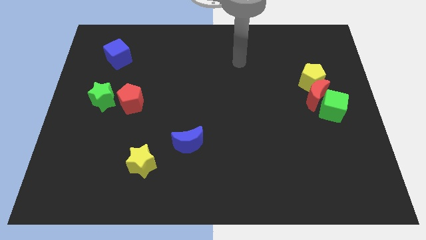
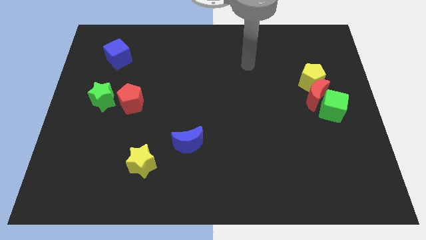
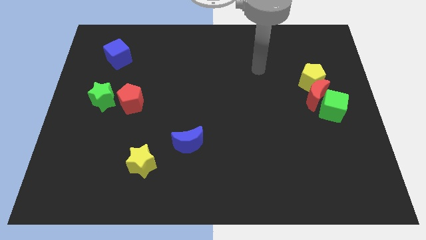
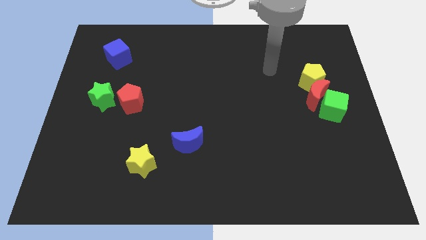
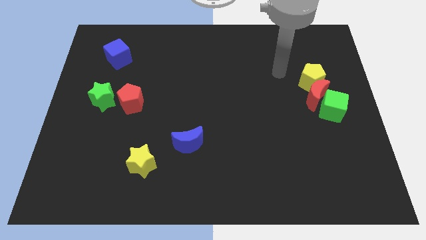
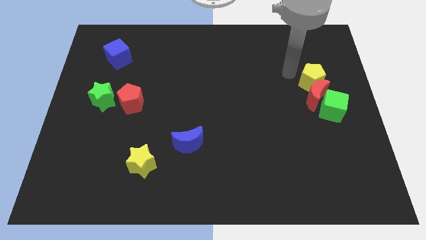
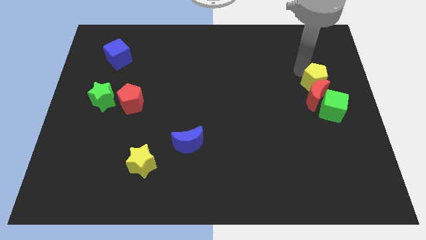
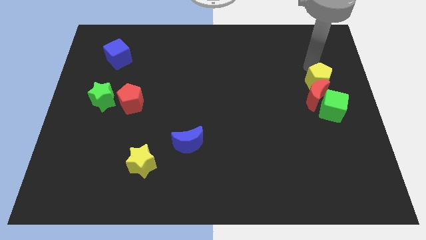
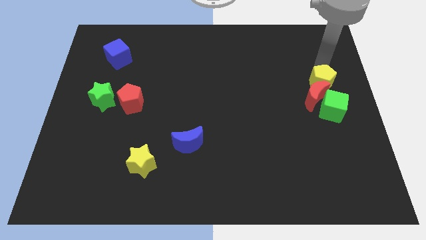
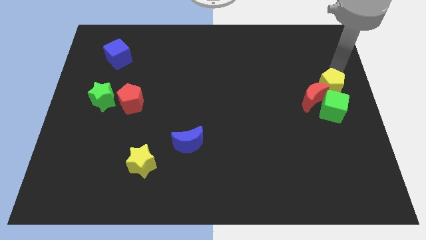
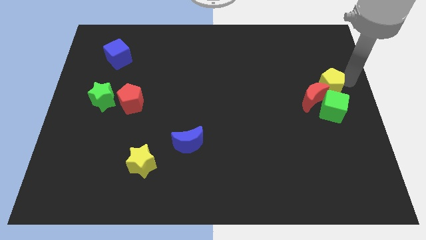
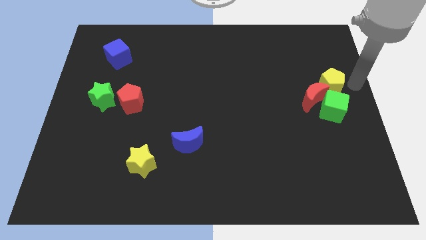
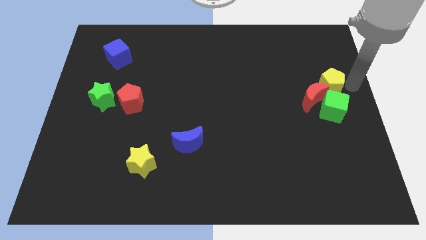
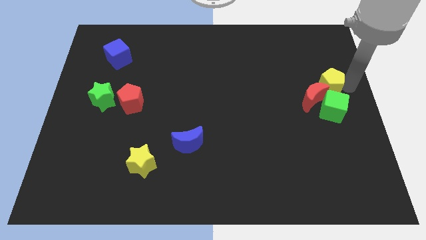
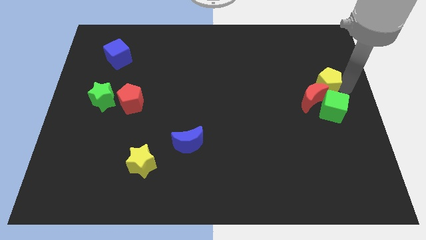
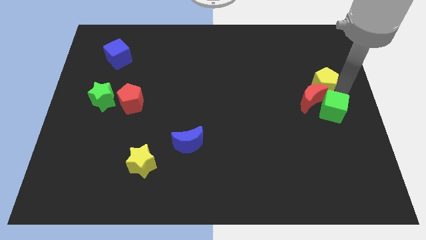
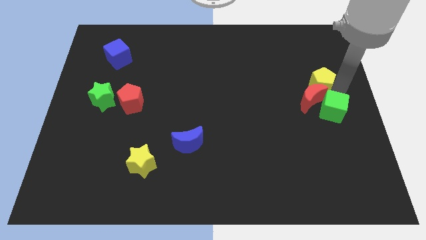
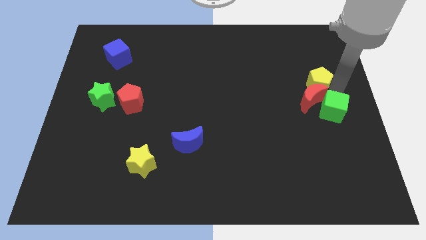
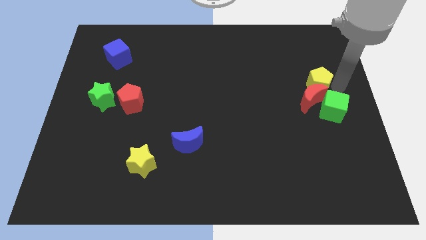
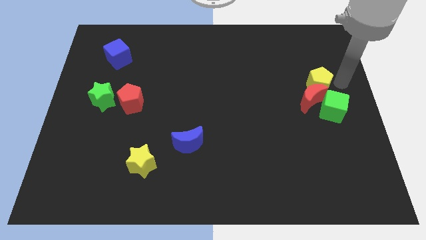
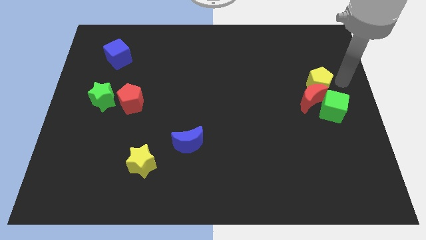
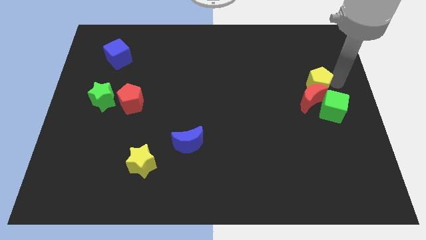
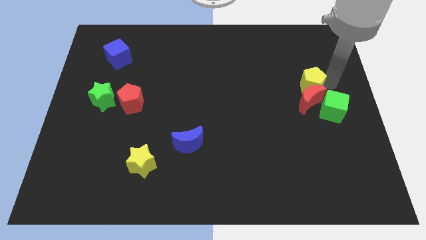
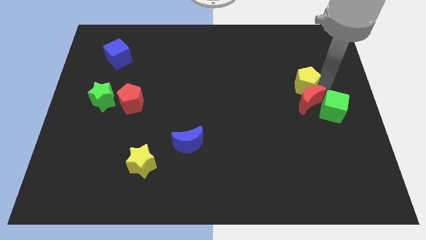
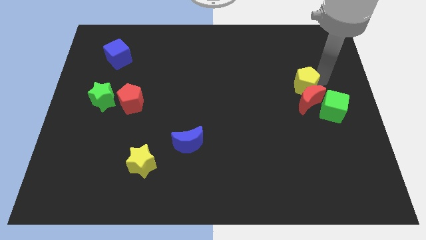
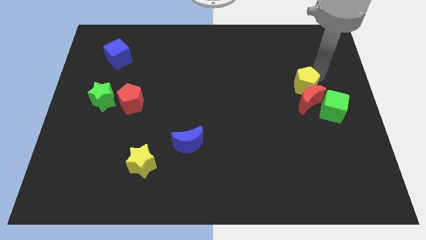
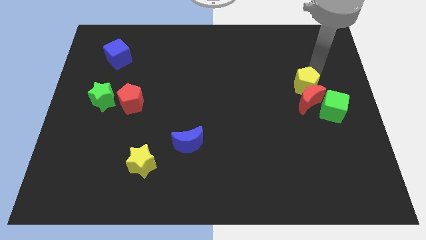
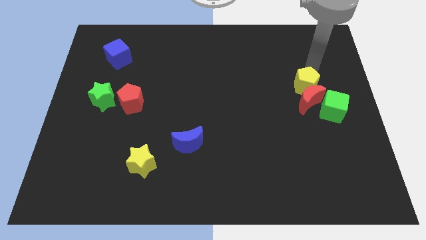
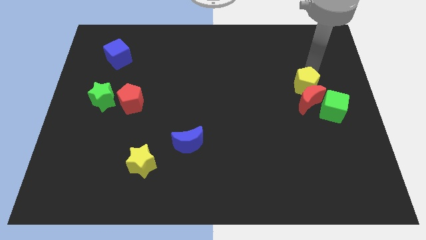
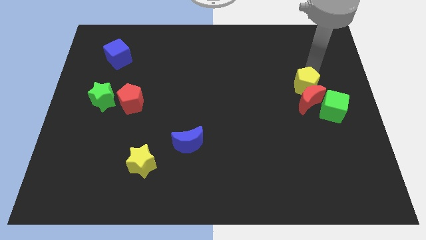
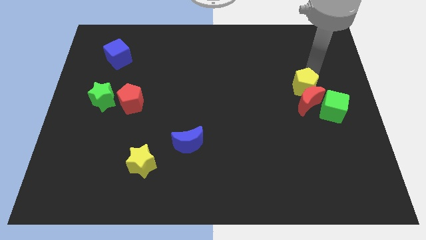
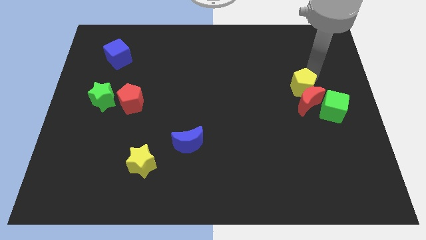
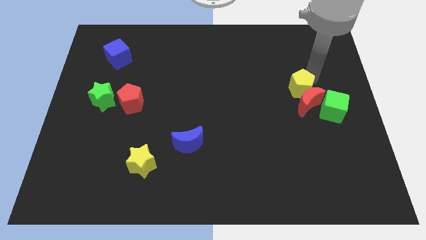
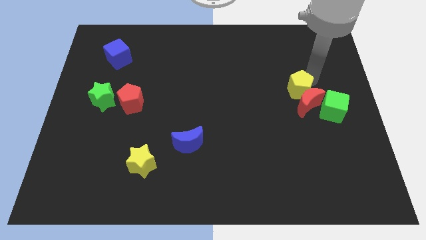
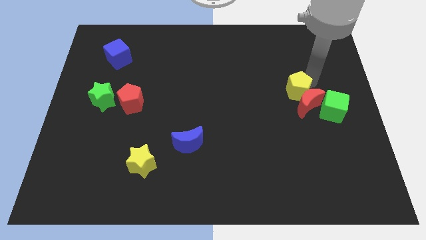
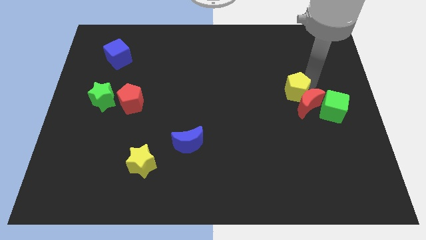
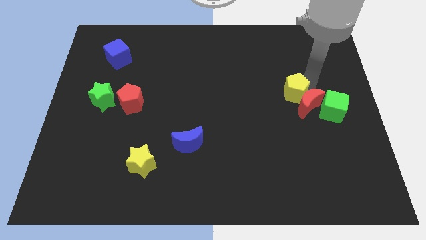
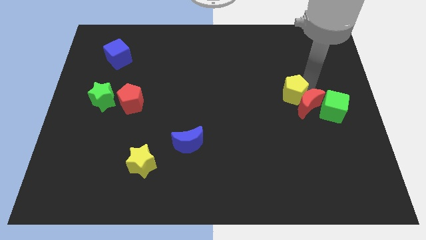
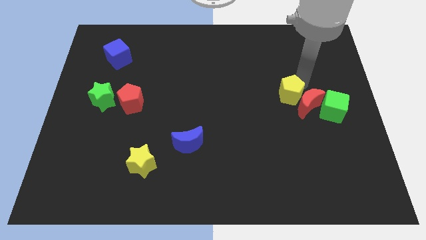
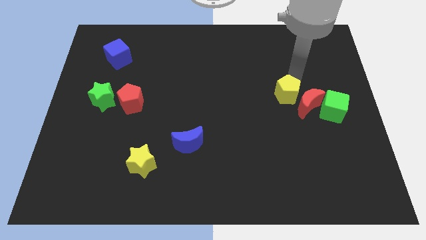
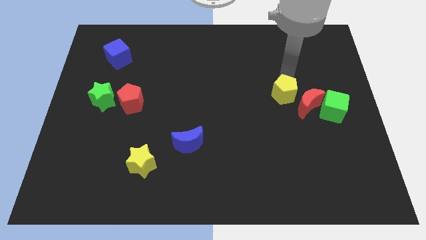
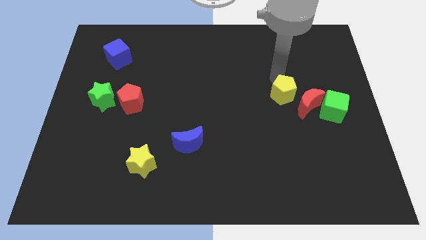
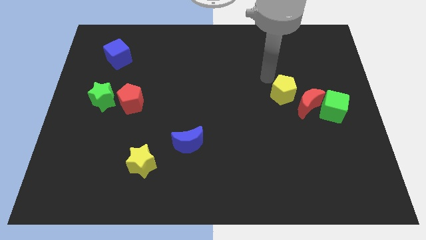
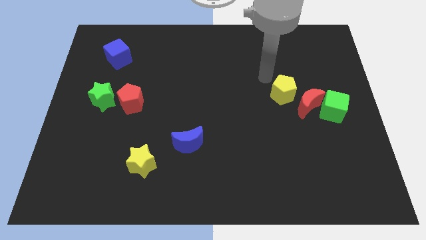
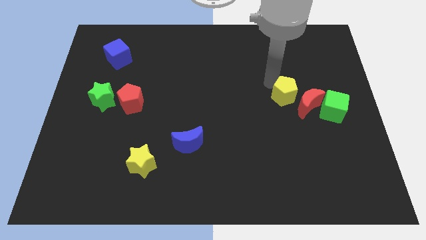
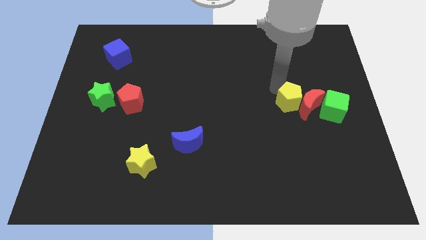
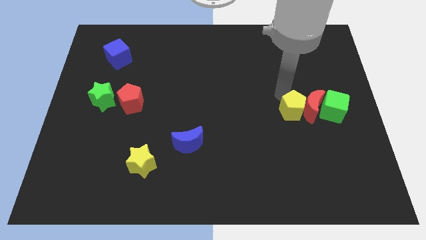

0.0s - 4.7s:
slightly move the yellow pentagon downwards

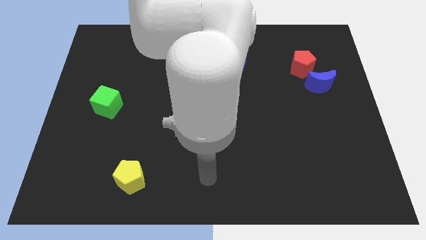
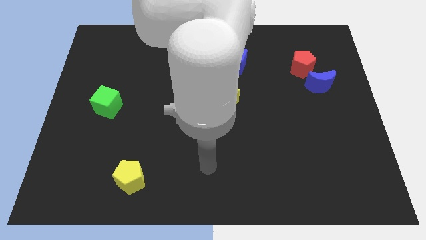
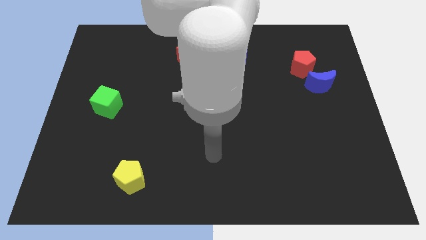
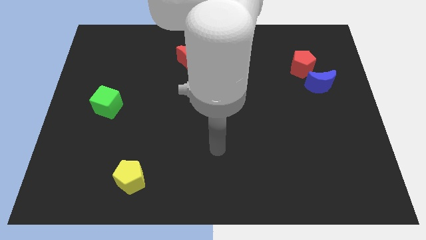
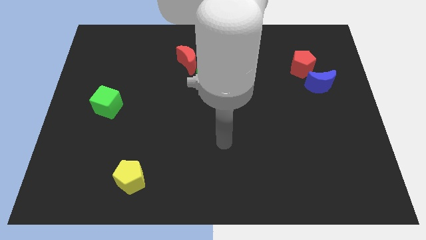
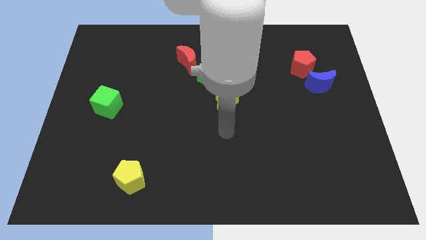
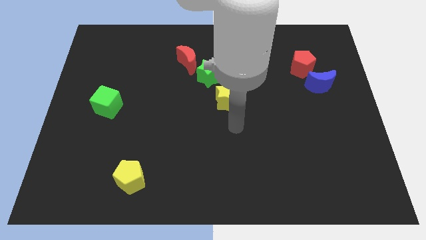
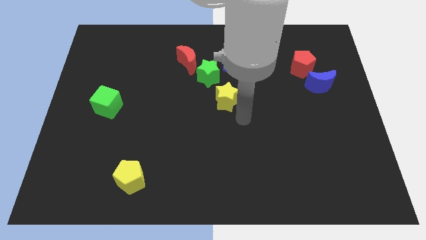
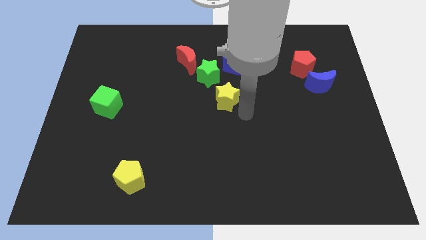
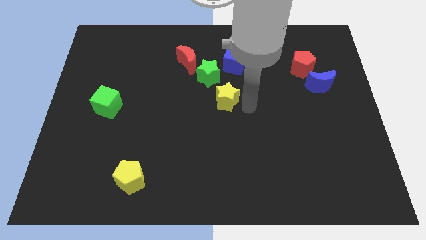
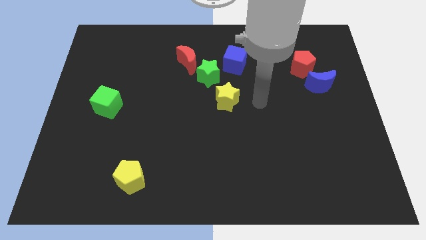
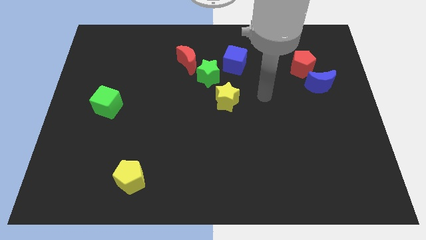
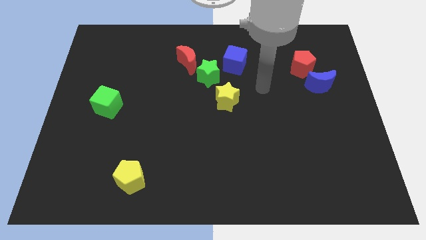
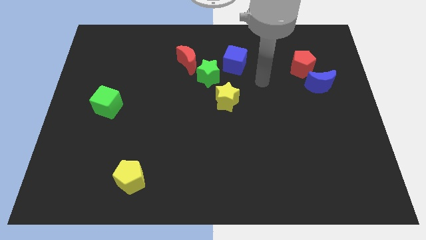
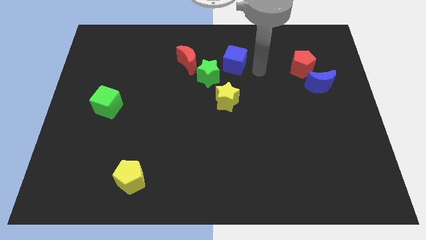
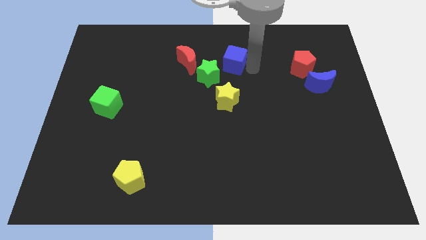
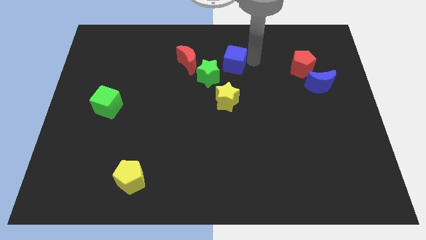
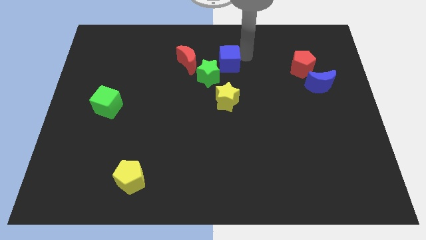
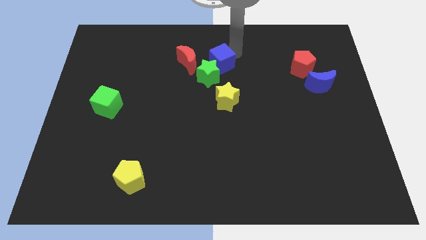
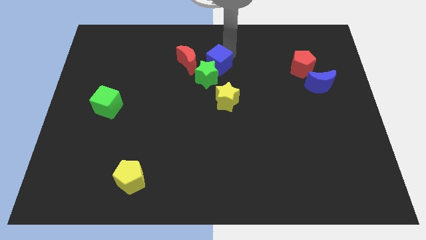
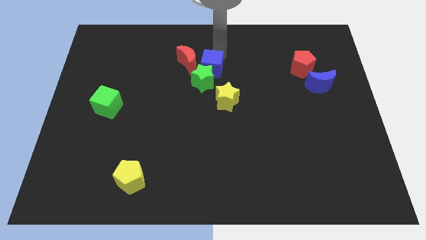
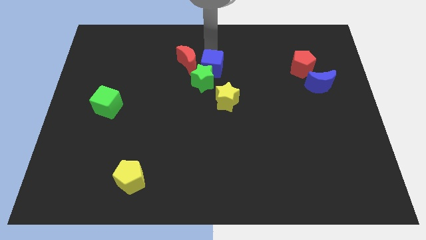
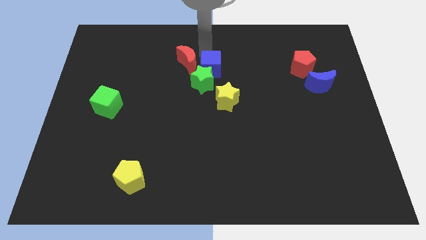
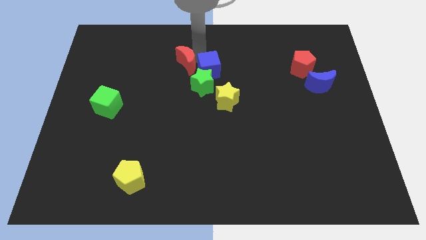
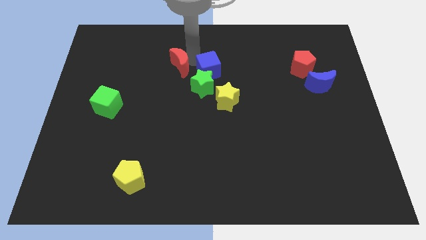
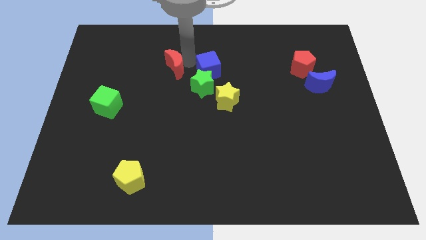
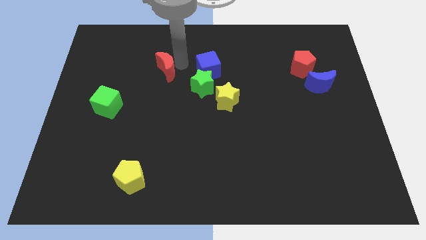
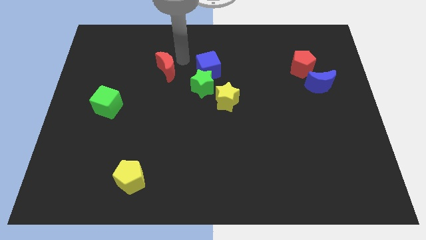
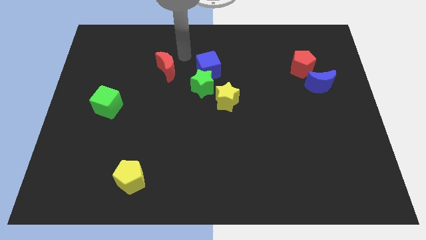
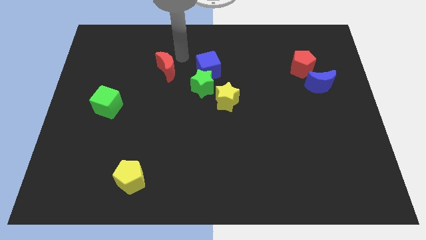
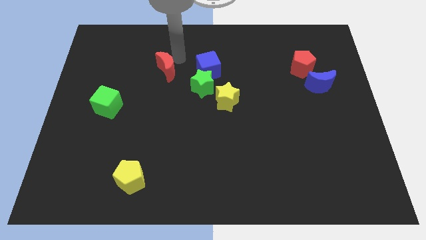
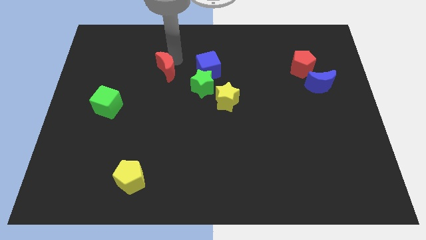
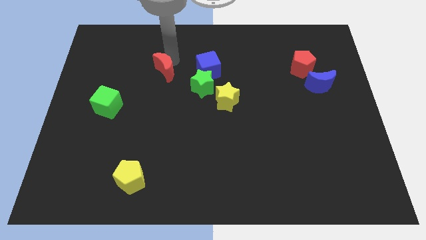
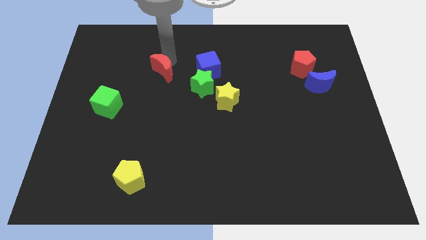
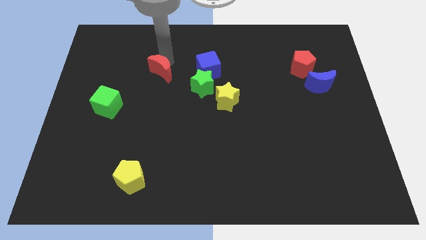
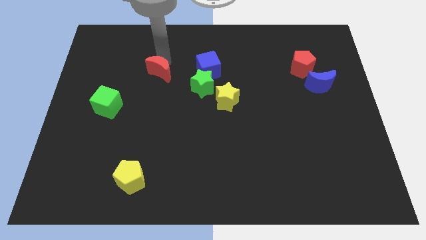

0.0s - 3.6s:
slightly push the red moon diagonally downwards and to the left
